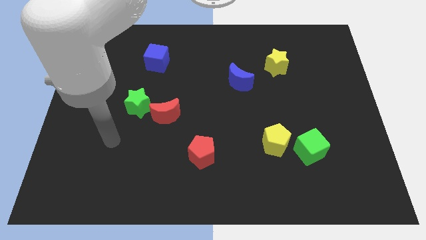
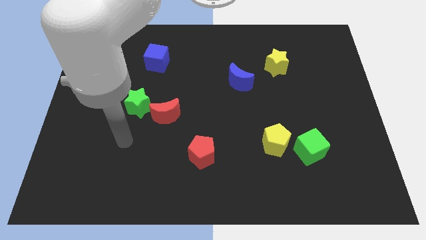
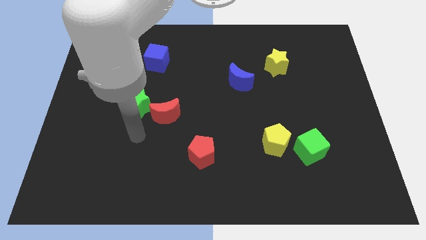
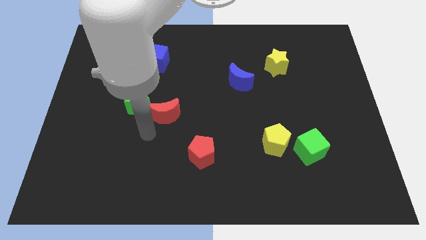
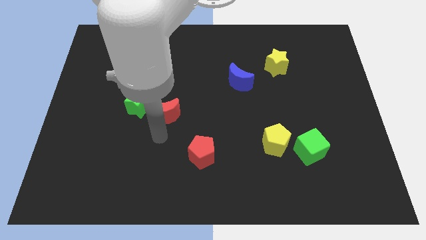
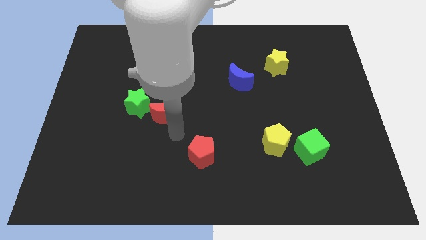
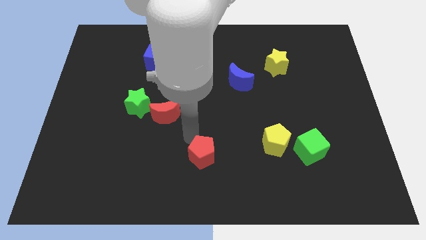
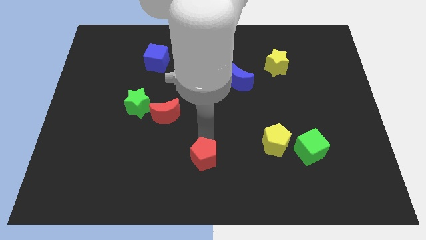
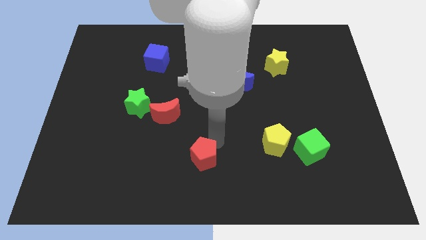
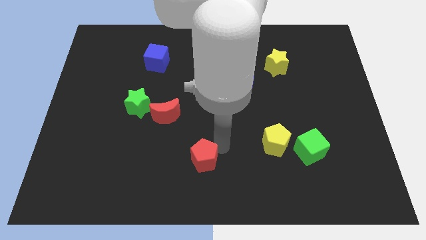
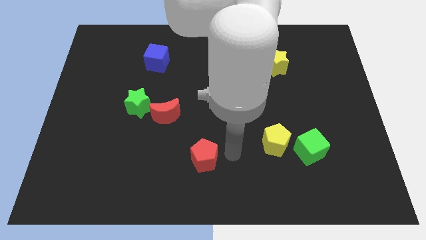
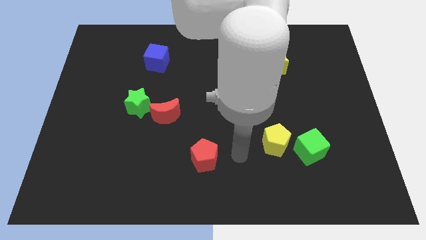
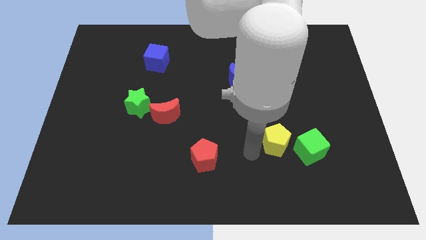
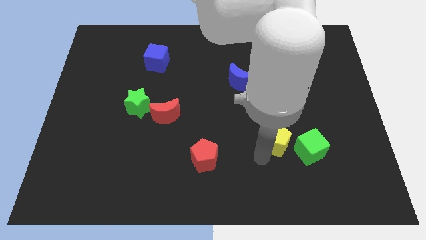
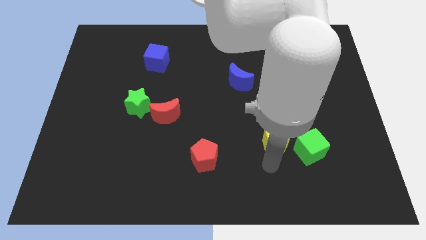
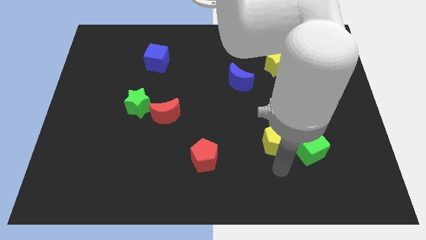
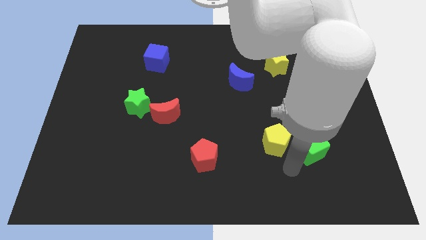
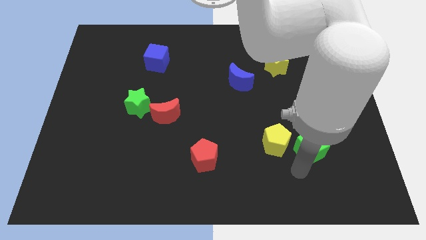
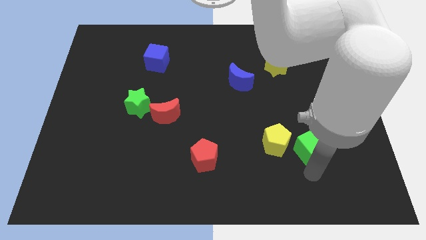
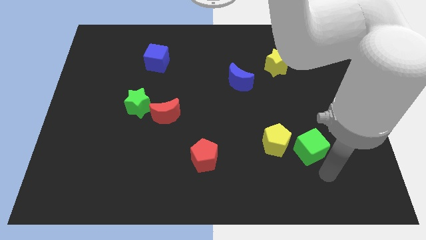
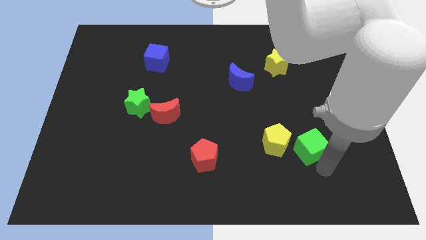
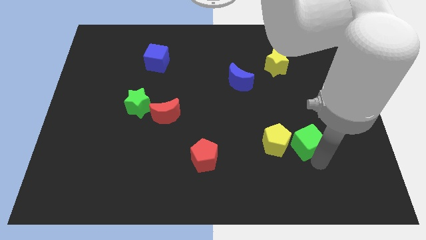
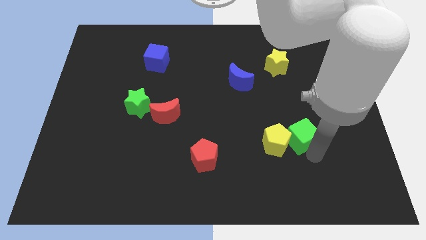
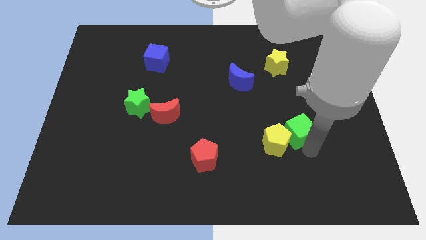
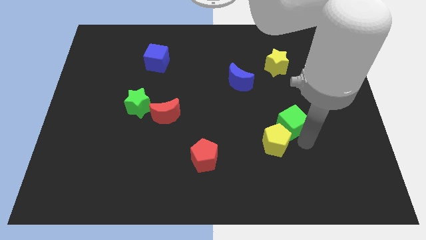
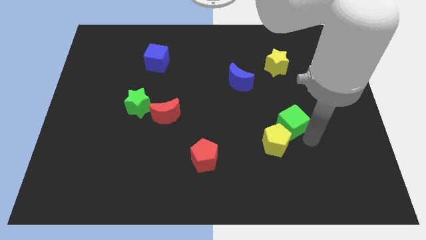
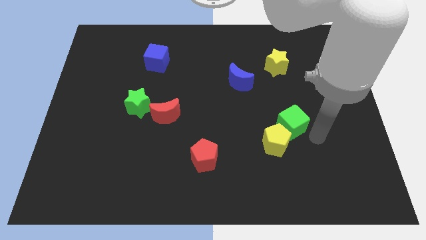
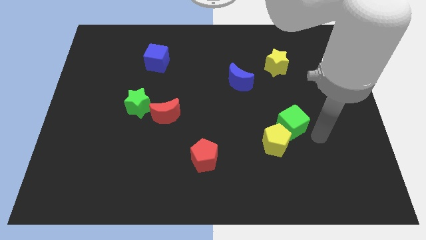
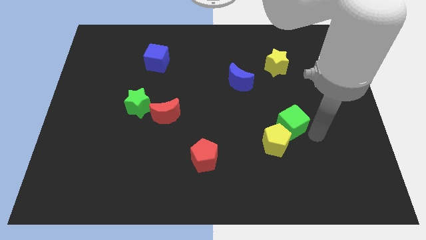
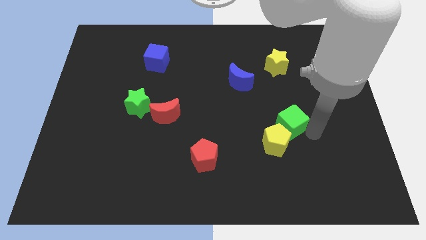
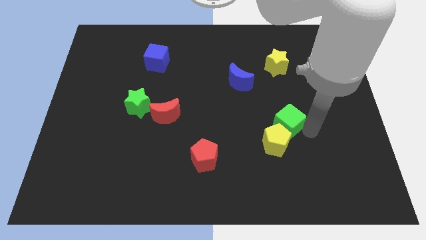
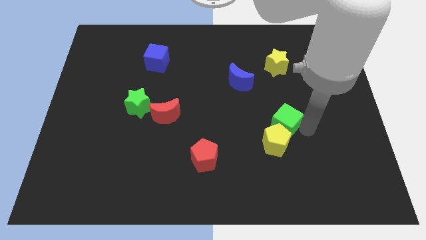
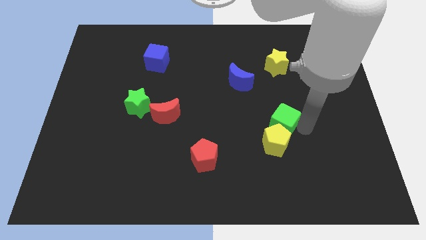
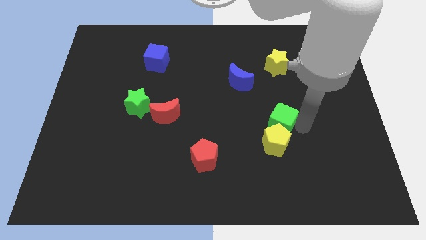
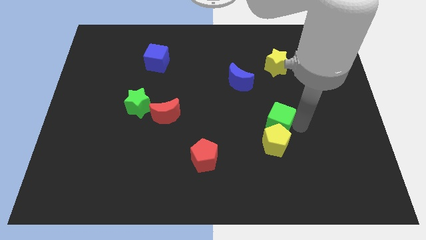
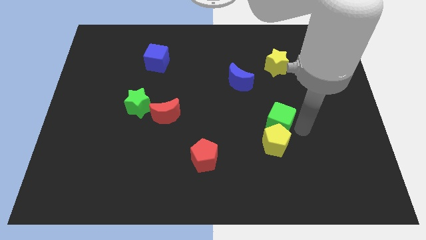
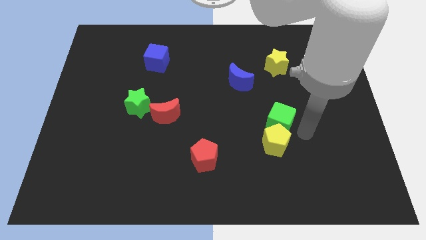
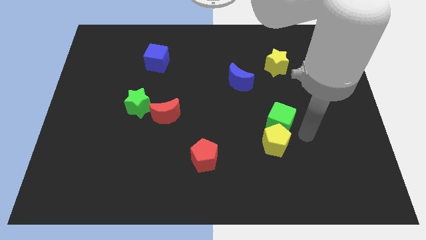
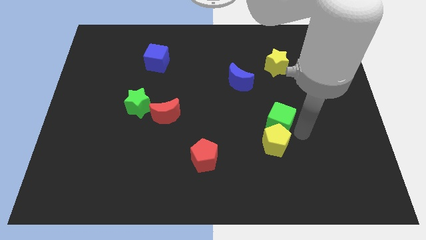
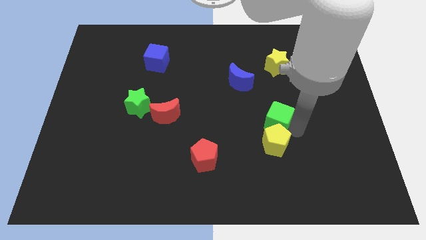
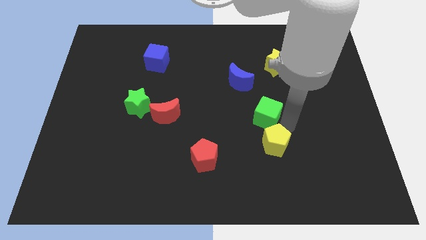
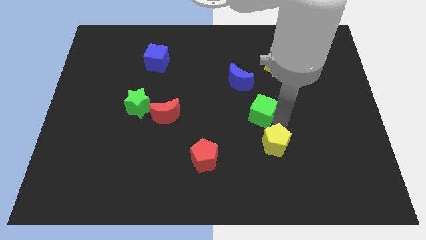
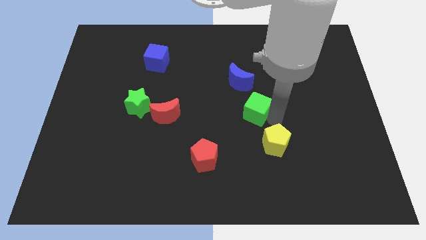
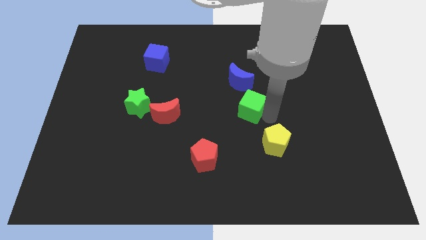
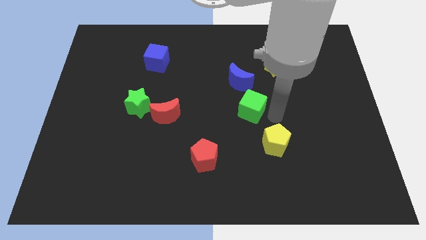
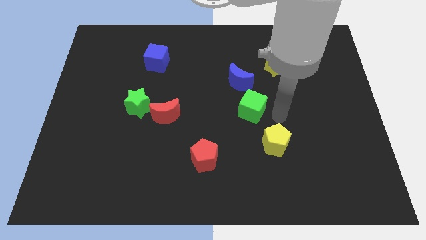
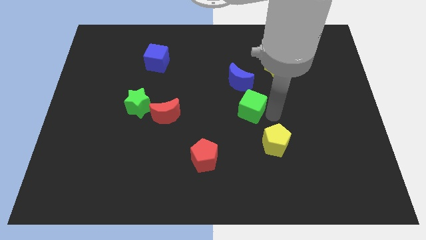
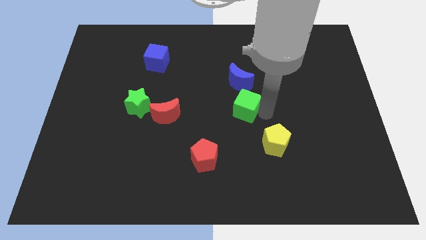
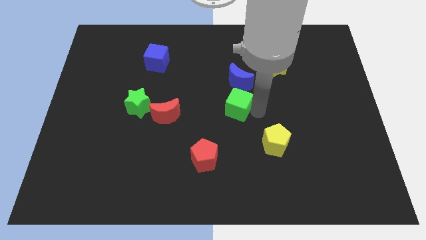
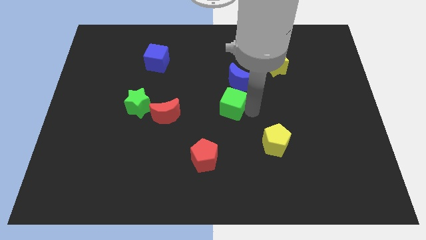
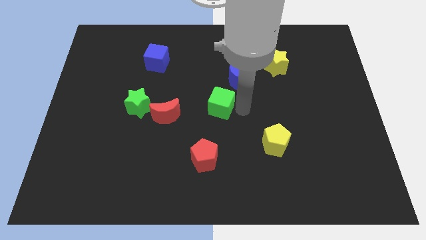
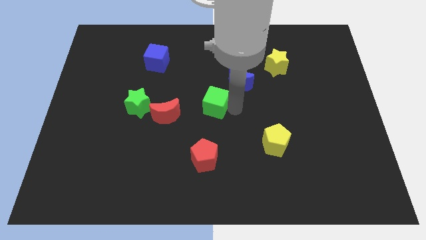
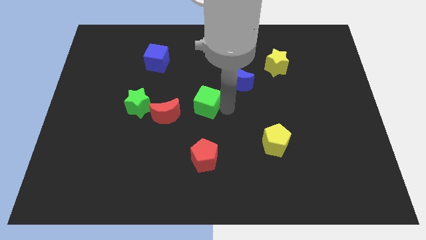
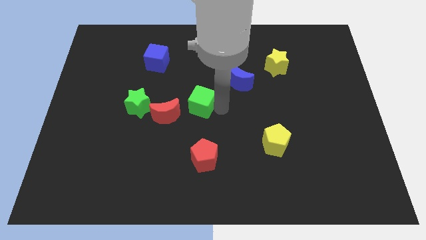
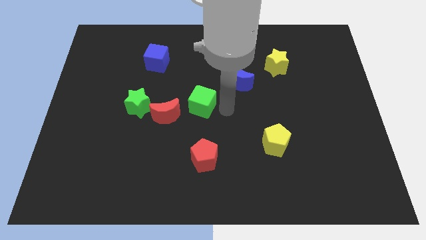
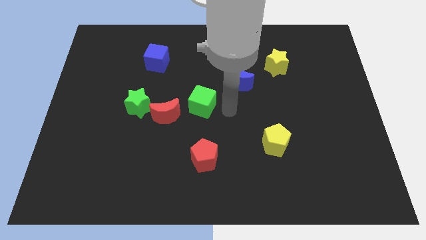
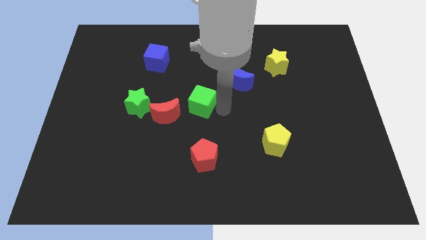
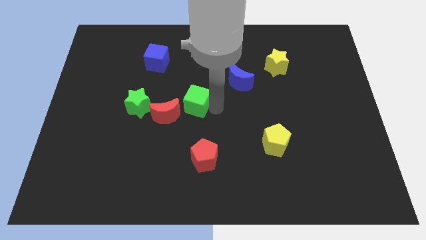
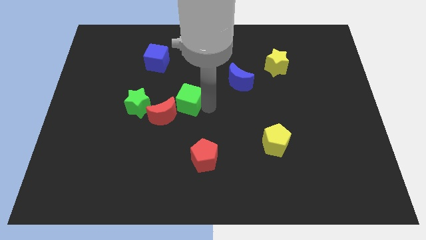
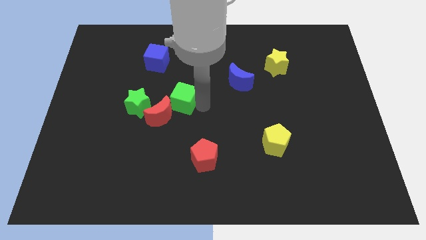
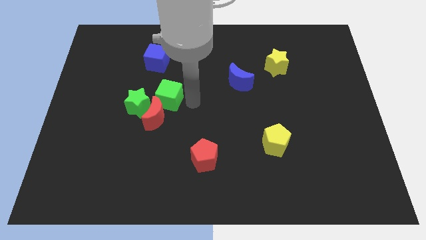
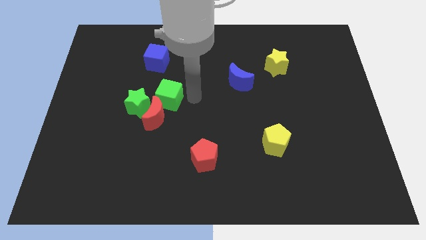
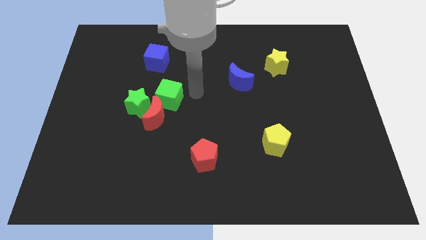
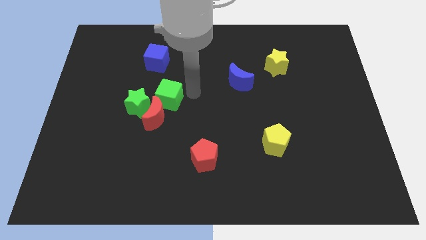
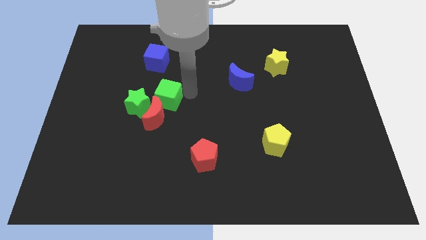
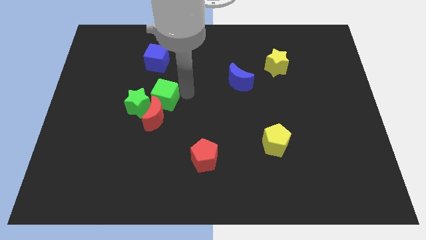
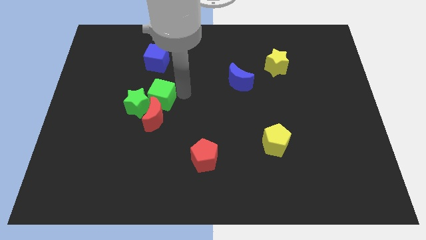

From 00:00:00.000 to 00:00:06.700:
slide the green cube next to the green star

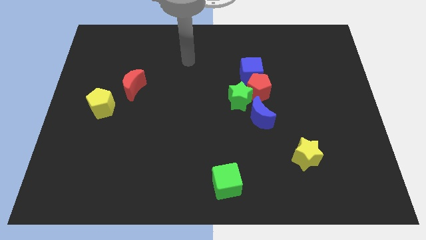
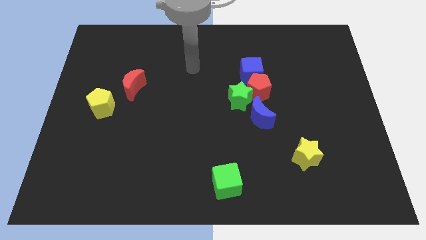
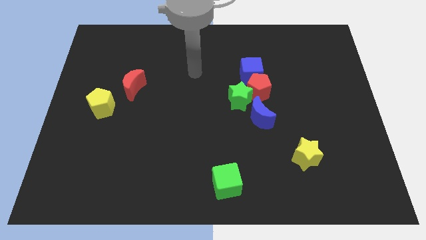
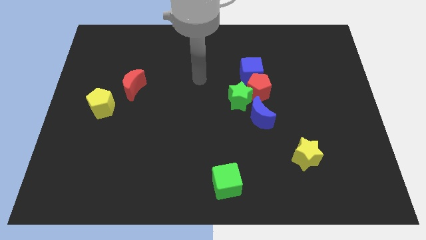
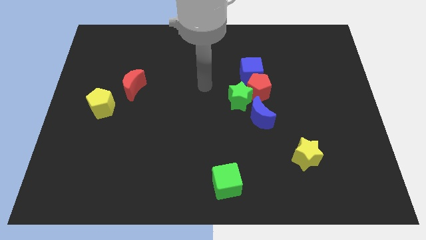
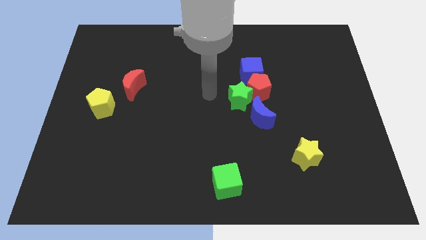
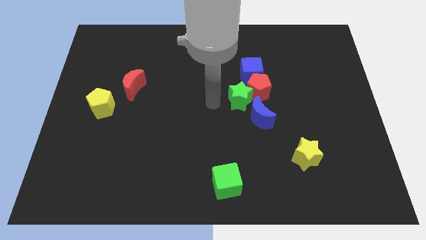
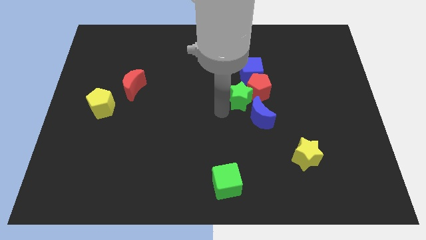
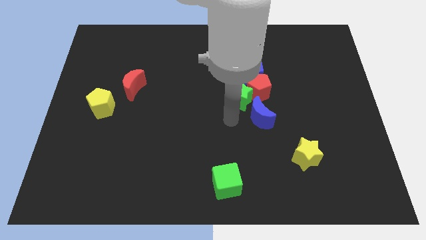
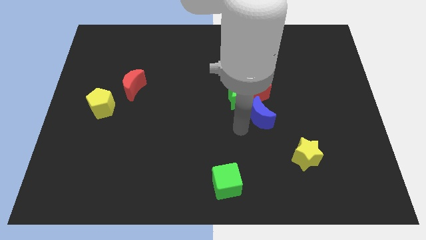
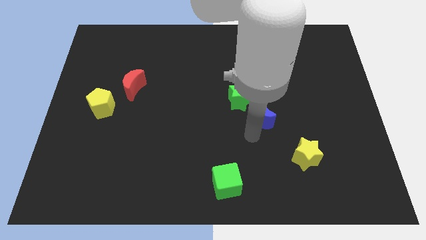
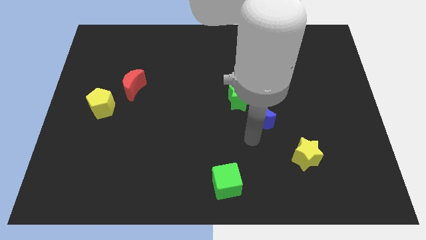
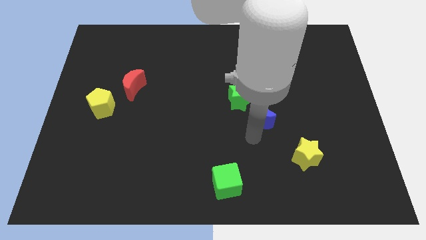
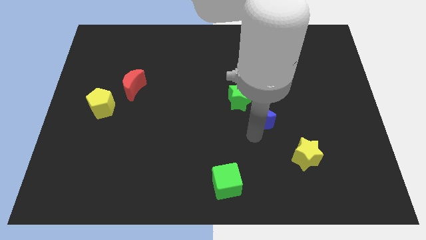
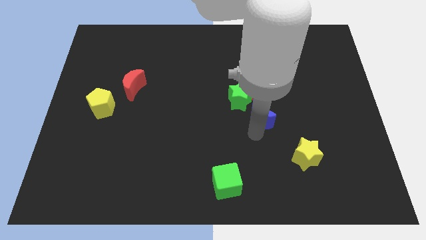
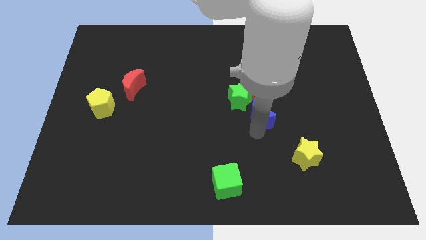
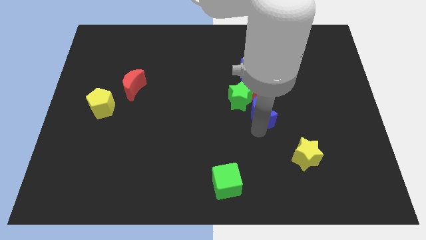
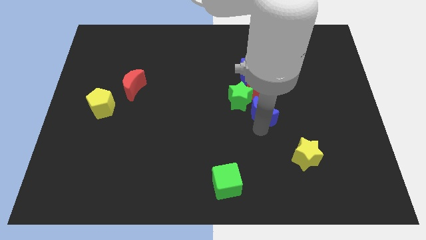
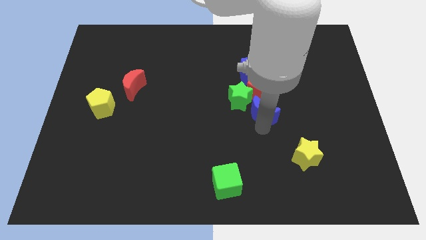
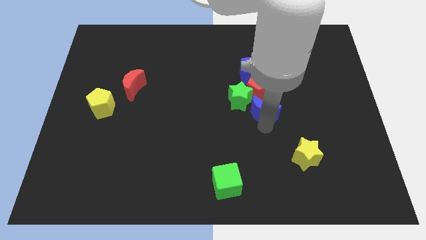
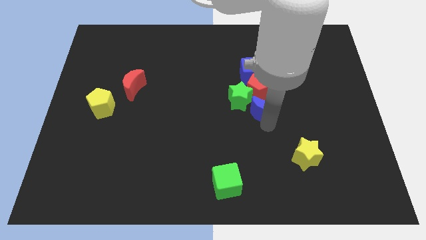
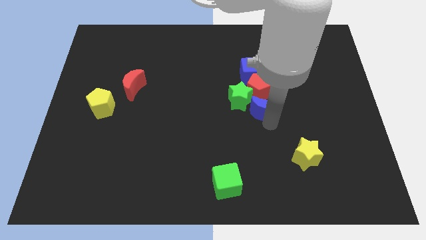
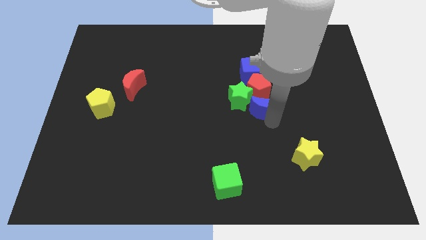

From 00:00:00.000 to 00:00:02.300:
slide the blue moon close to the red pentagon
